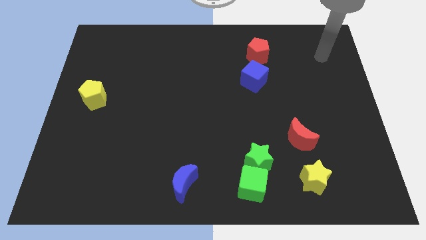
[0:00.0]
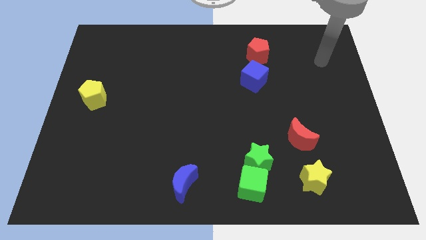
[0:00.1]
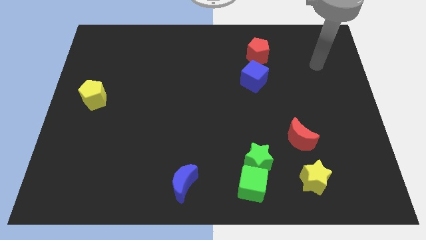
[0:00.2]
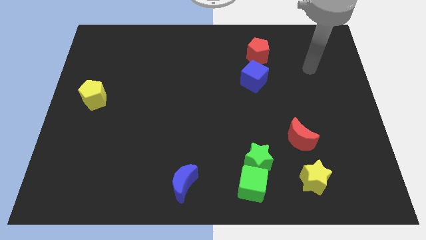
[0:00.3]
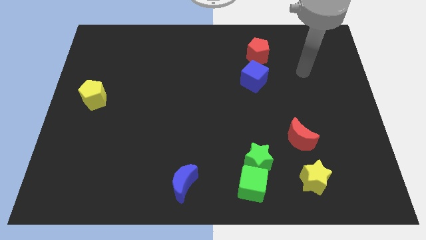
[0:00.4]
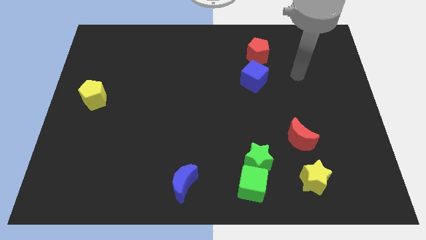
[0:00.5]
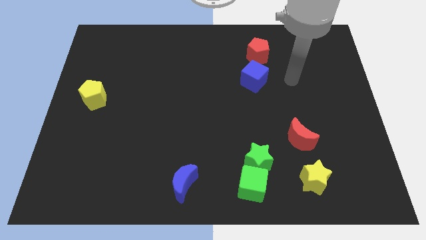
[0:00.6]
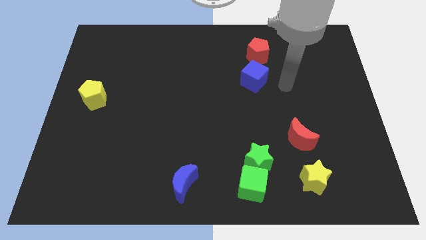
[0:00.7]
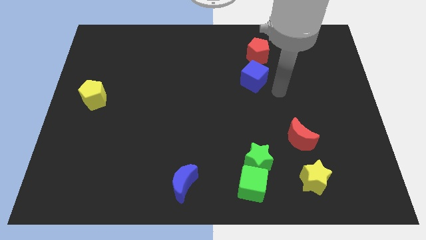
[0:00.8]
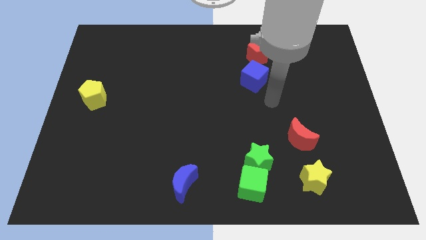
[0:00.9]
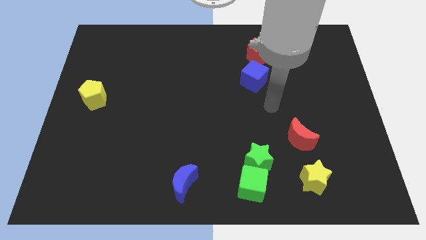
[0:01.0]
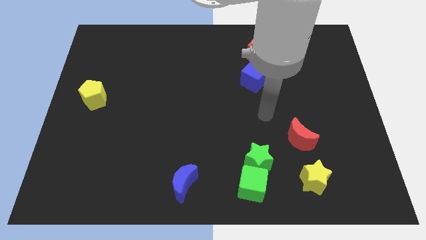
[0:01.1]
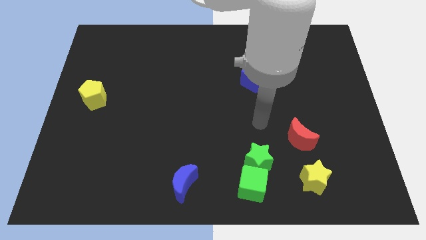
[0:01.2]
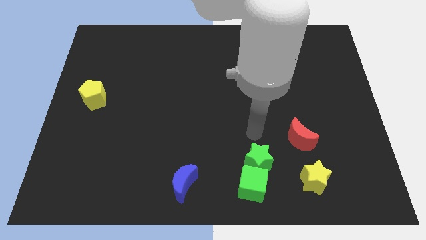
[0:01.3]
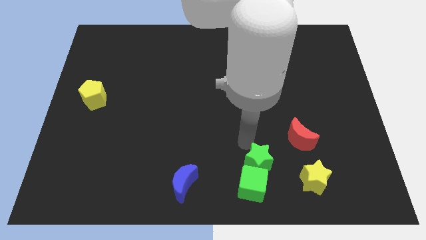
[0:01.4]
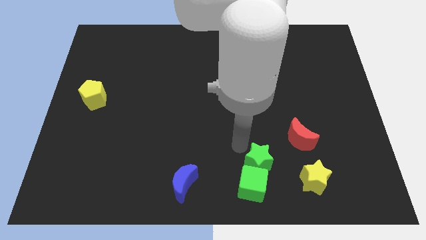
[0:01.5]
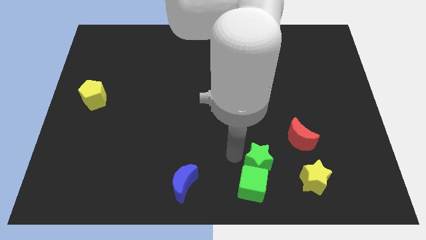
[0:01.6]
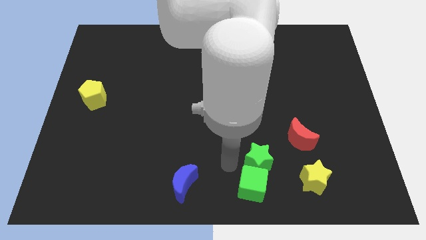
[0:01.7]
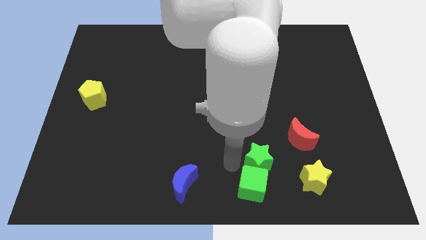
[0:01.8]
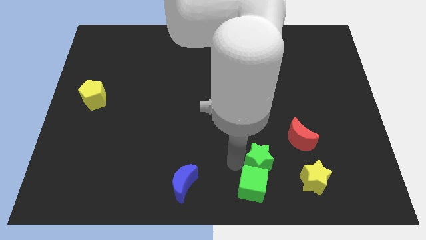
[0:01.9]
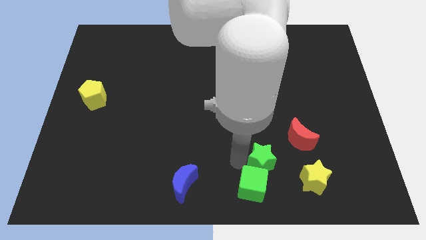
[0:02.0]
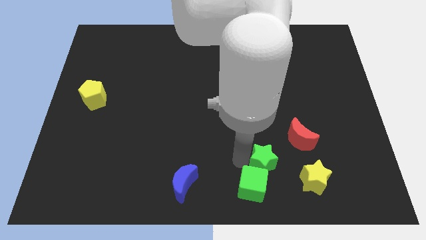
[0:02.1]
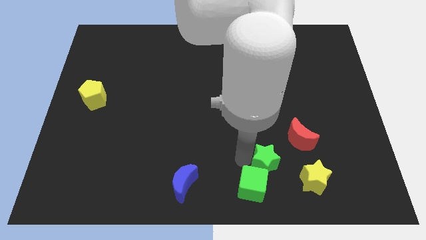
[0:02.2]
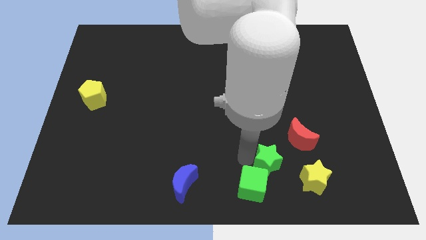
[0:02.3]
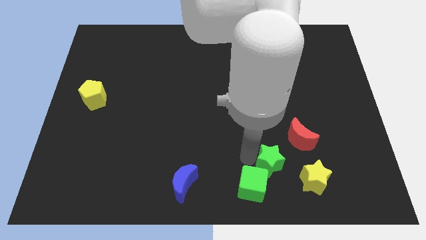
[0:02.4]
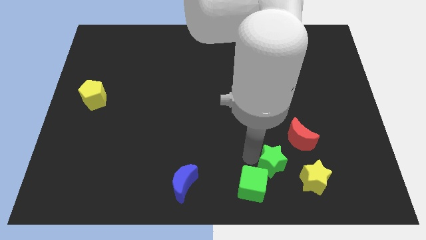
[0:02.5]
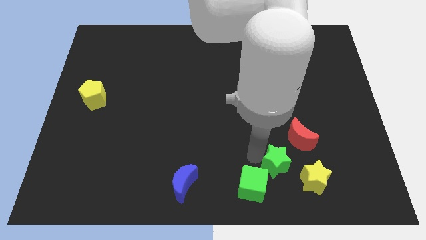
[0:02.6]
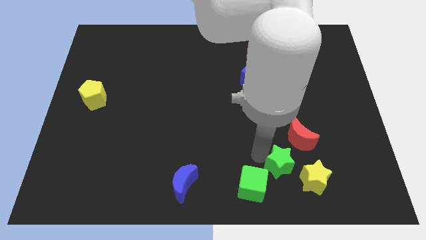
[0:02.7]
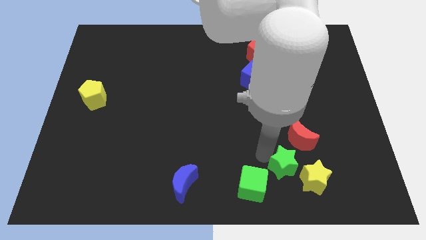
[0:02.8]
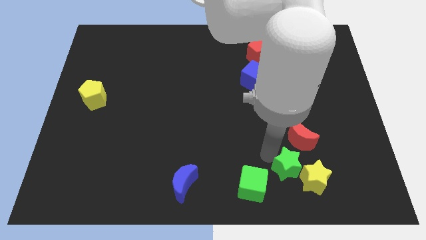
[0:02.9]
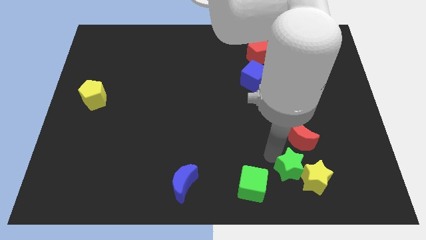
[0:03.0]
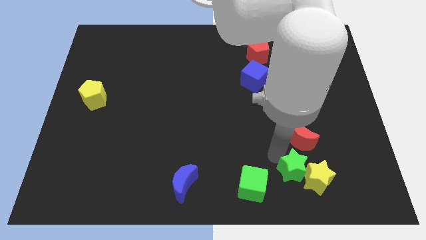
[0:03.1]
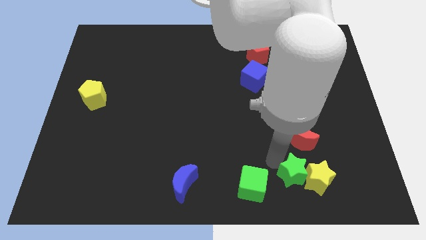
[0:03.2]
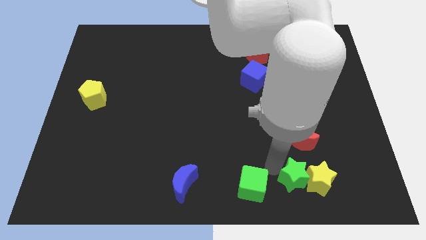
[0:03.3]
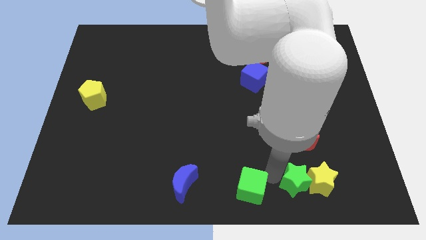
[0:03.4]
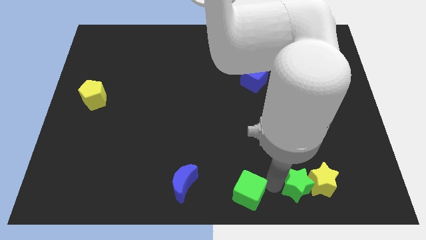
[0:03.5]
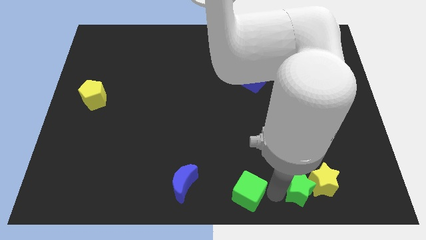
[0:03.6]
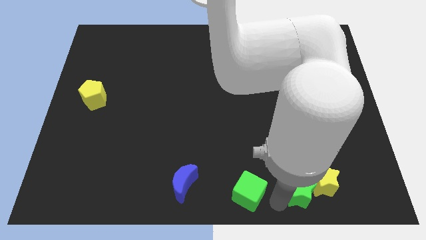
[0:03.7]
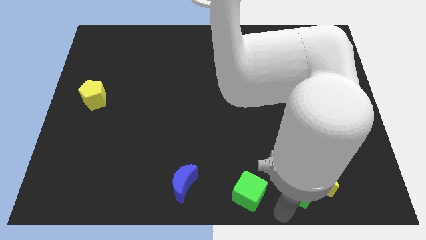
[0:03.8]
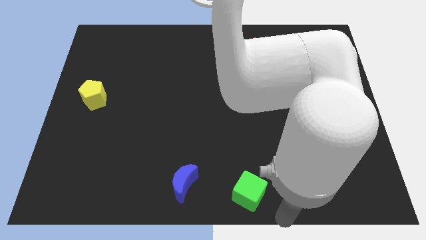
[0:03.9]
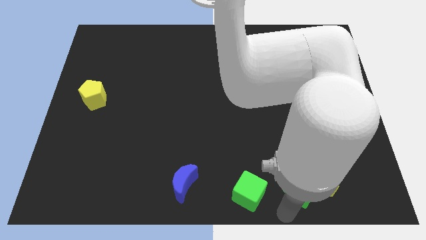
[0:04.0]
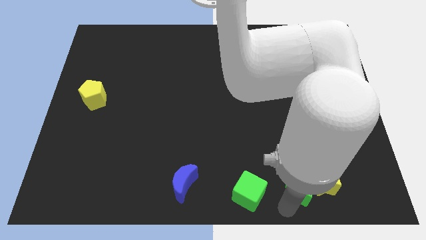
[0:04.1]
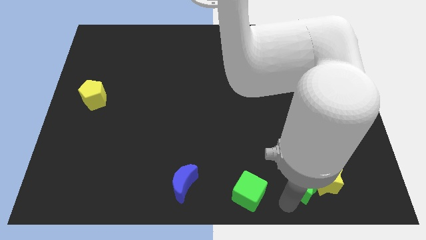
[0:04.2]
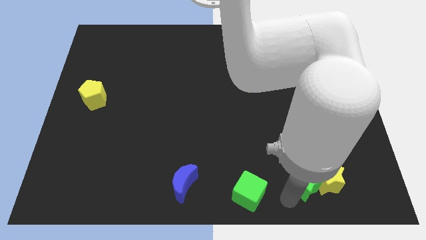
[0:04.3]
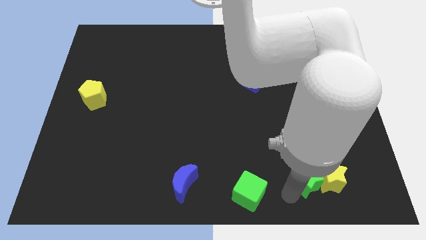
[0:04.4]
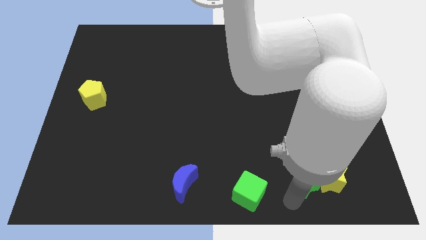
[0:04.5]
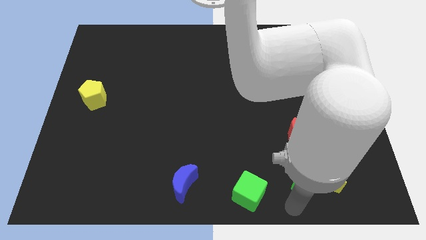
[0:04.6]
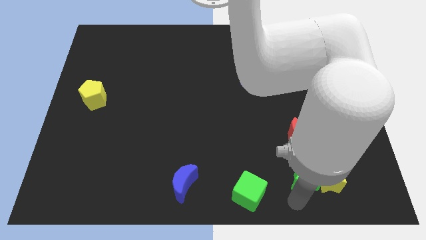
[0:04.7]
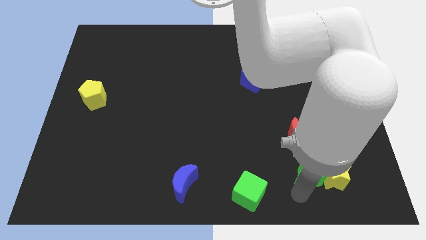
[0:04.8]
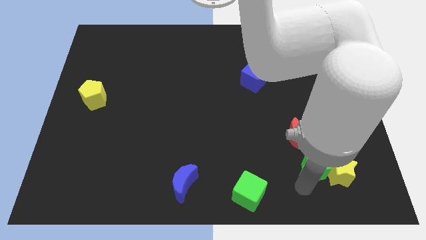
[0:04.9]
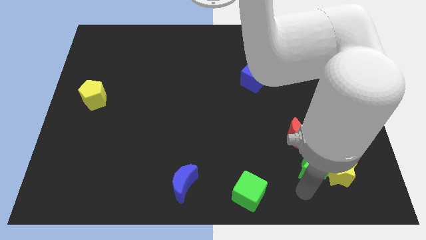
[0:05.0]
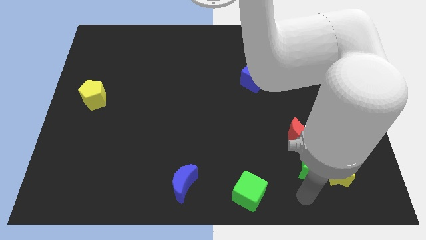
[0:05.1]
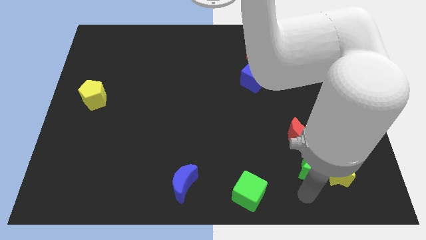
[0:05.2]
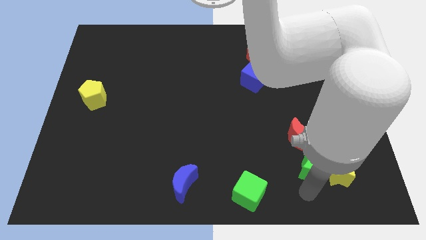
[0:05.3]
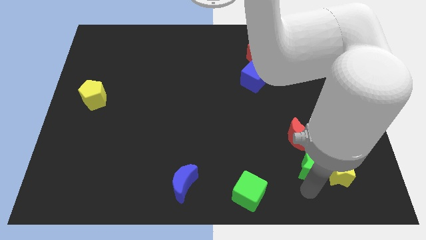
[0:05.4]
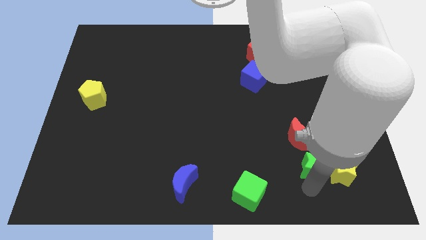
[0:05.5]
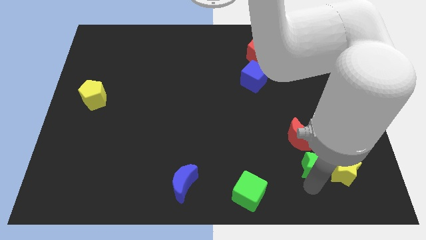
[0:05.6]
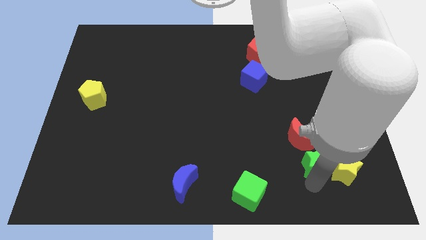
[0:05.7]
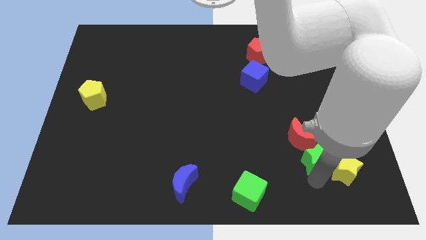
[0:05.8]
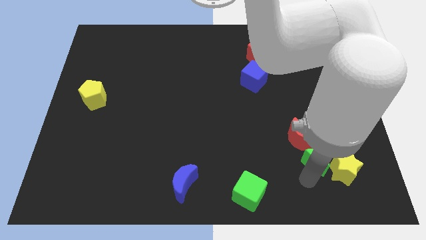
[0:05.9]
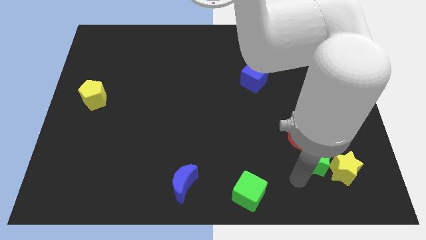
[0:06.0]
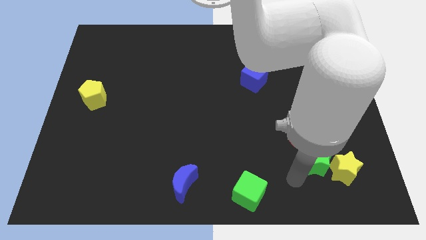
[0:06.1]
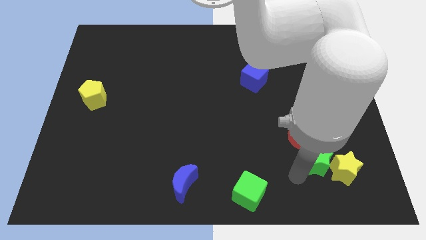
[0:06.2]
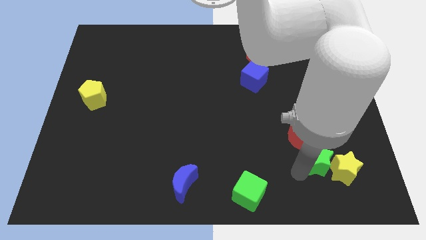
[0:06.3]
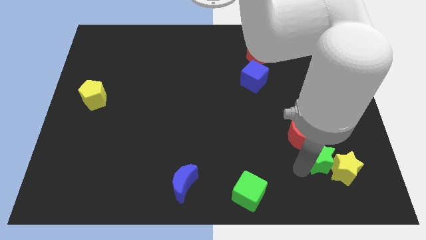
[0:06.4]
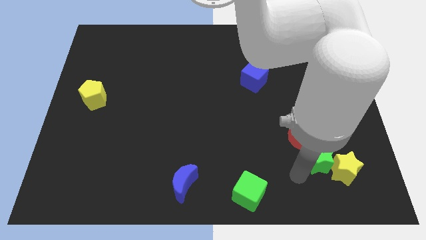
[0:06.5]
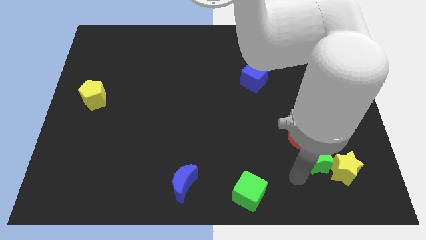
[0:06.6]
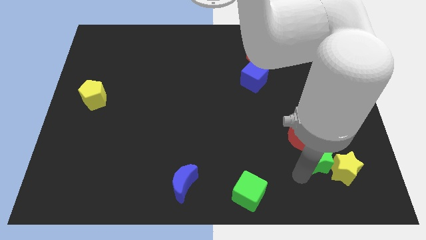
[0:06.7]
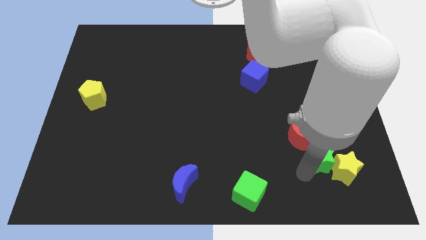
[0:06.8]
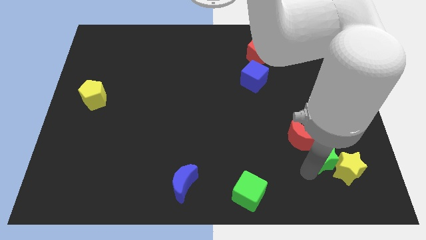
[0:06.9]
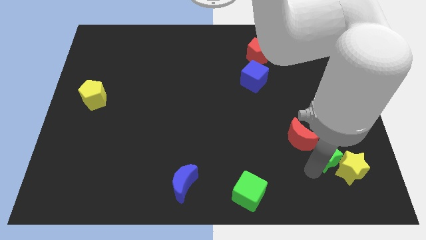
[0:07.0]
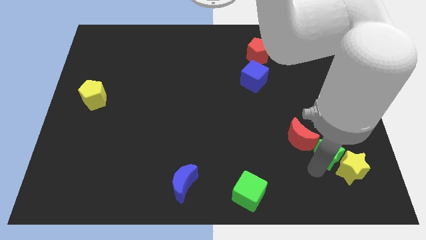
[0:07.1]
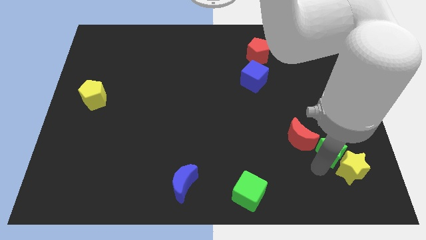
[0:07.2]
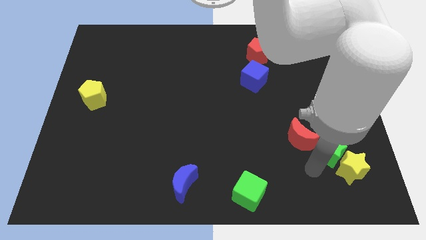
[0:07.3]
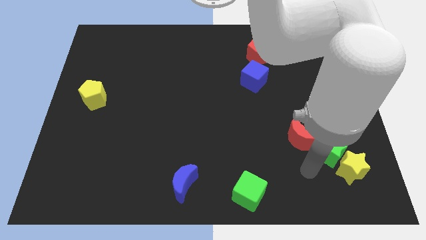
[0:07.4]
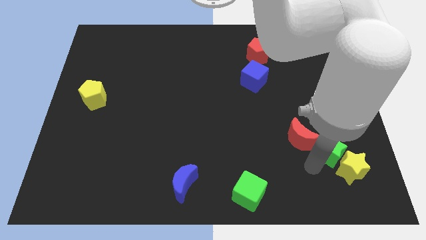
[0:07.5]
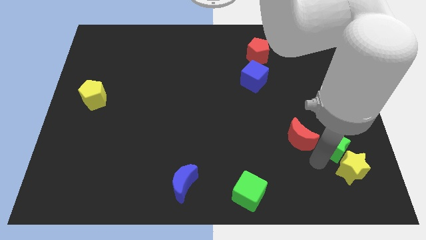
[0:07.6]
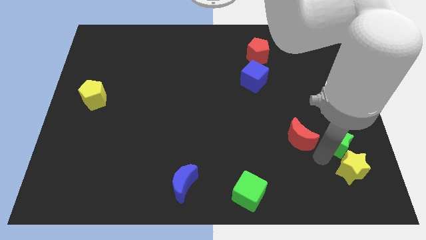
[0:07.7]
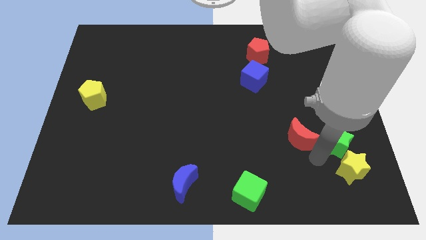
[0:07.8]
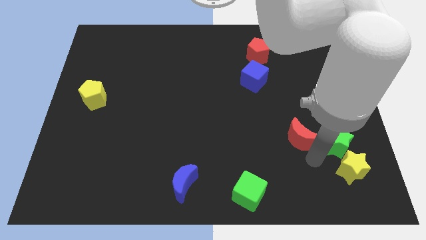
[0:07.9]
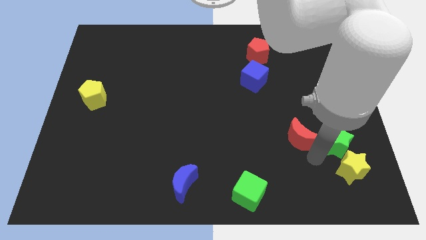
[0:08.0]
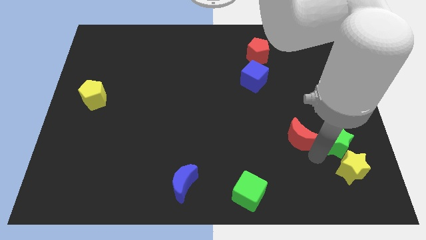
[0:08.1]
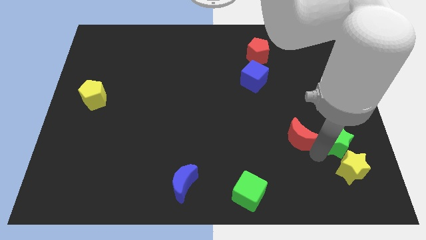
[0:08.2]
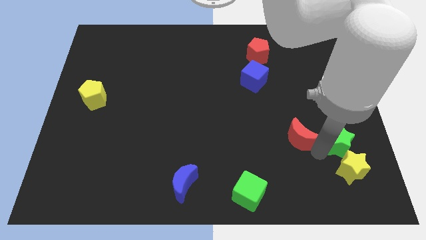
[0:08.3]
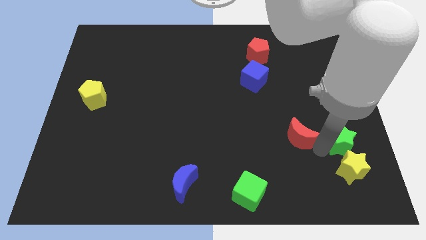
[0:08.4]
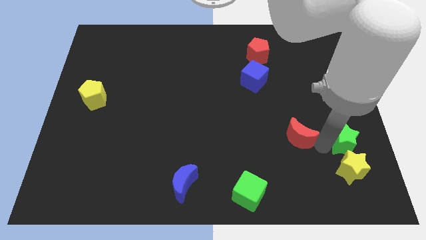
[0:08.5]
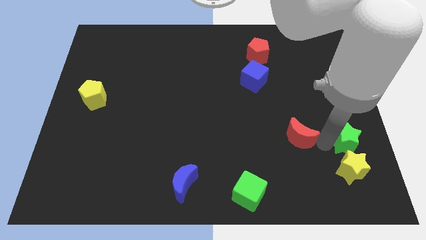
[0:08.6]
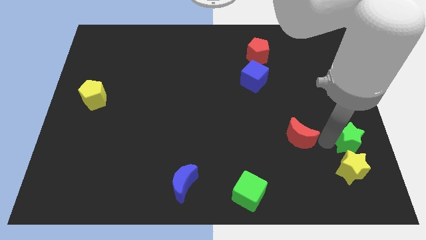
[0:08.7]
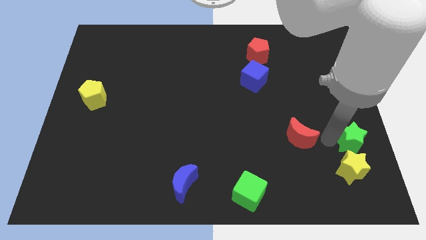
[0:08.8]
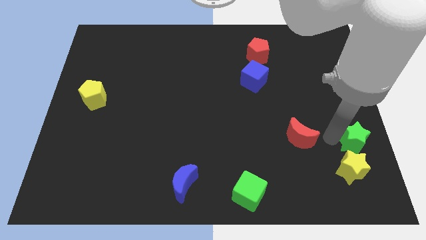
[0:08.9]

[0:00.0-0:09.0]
push the green star to the right side of the board
